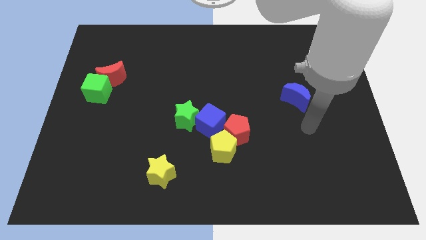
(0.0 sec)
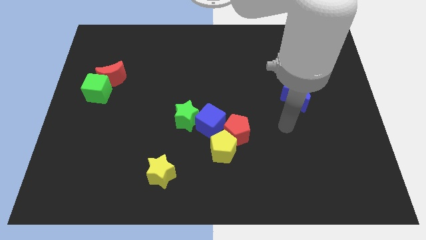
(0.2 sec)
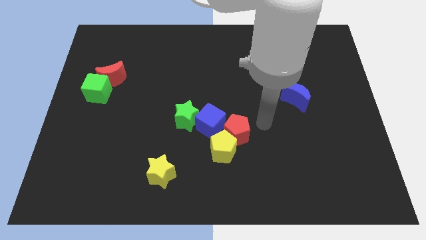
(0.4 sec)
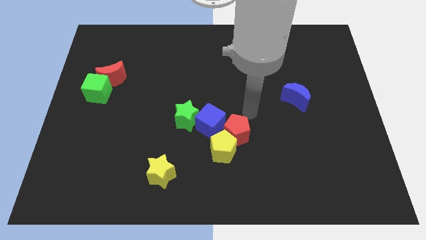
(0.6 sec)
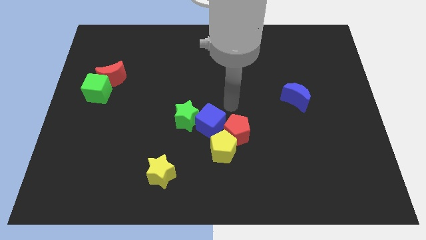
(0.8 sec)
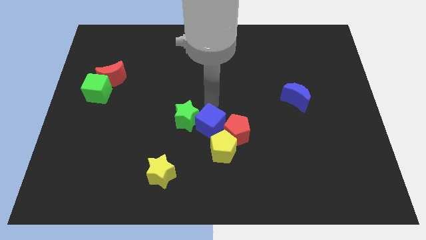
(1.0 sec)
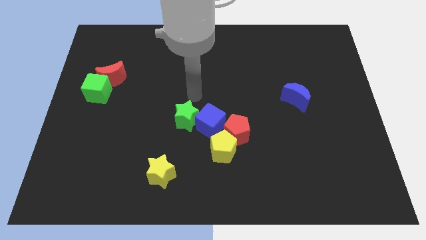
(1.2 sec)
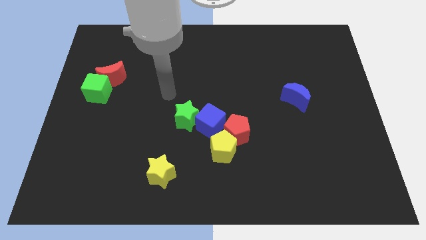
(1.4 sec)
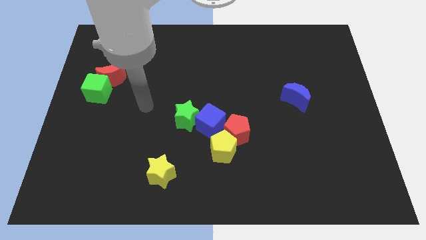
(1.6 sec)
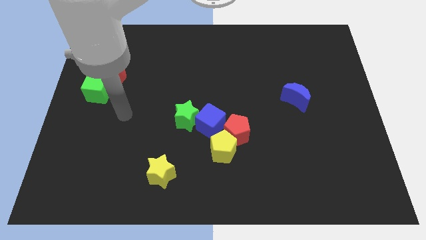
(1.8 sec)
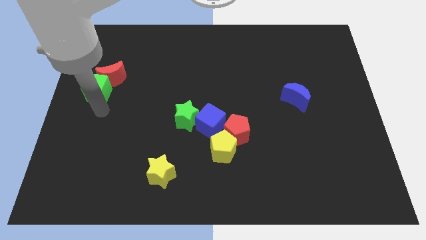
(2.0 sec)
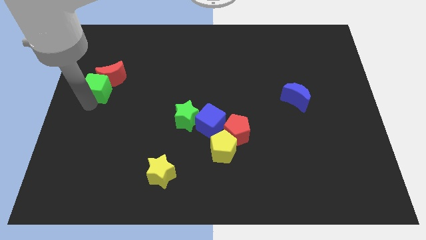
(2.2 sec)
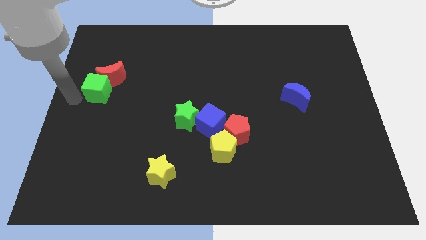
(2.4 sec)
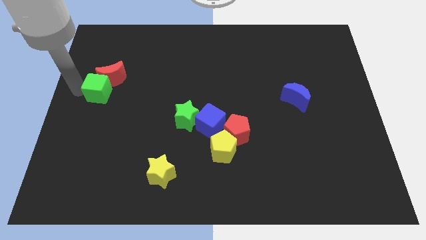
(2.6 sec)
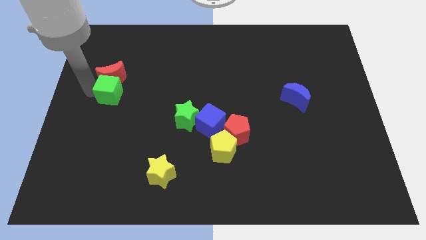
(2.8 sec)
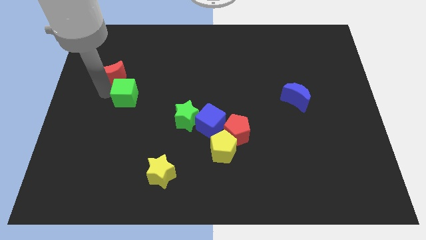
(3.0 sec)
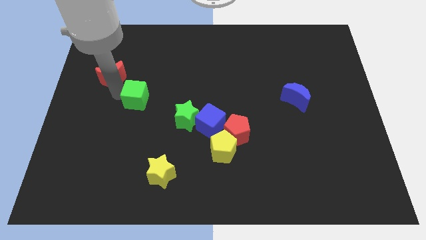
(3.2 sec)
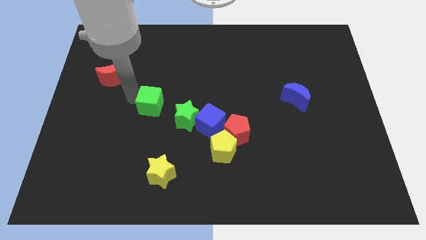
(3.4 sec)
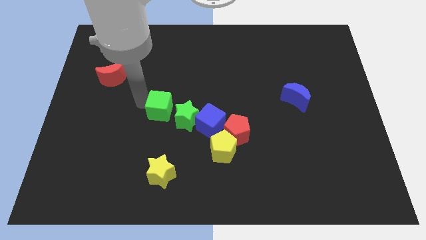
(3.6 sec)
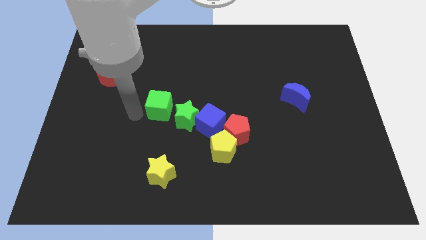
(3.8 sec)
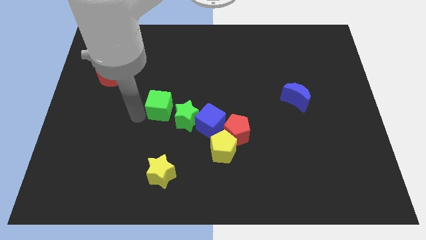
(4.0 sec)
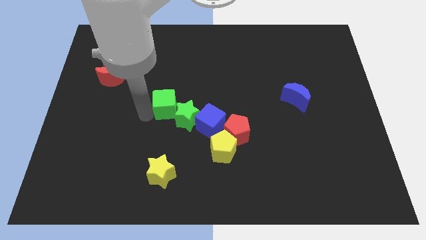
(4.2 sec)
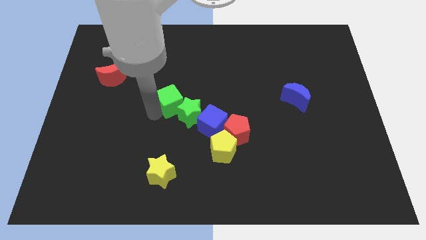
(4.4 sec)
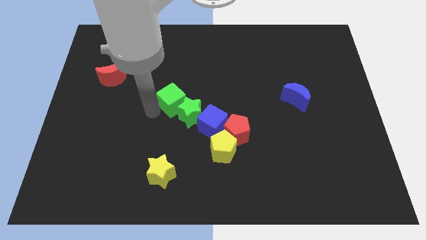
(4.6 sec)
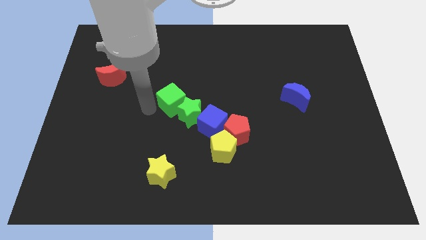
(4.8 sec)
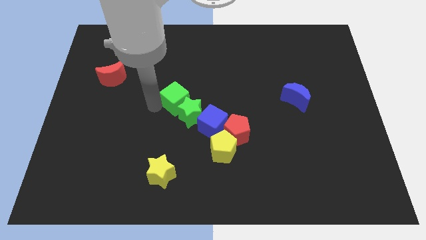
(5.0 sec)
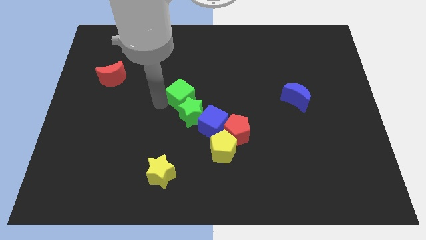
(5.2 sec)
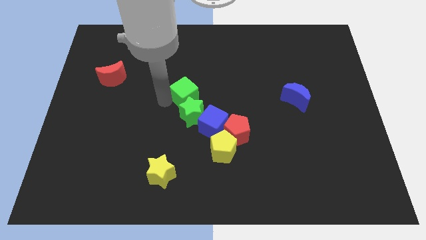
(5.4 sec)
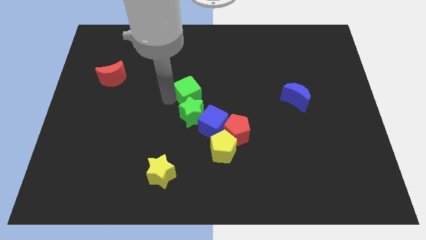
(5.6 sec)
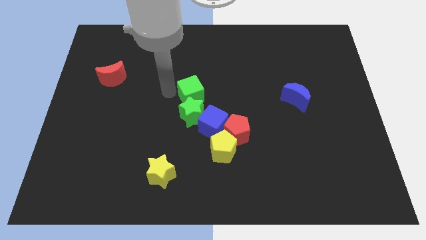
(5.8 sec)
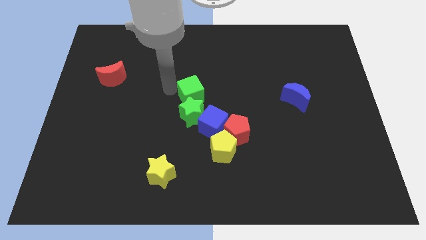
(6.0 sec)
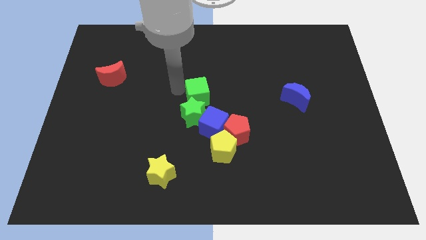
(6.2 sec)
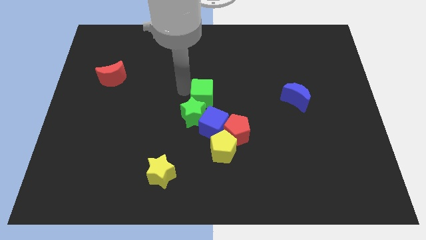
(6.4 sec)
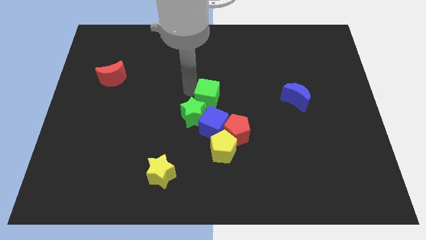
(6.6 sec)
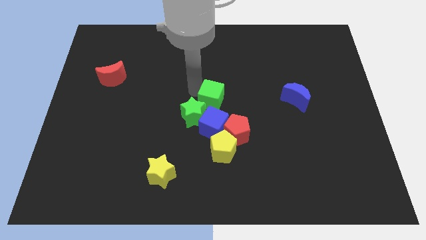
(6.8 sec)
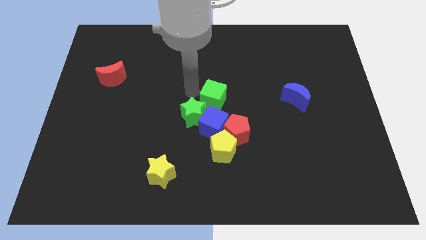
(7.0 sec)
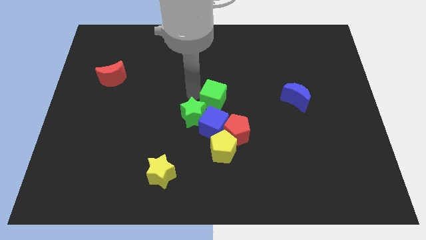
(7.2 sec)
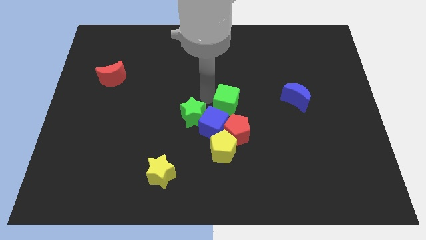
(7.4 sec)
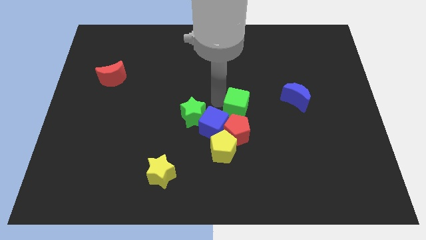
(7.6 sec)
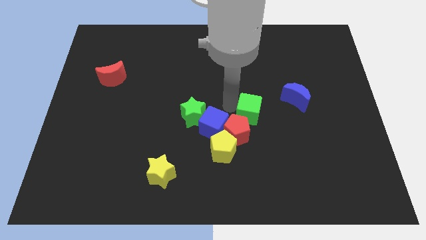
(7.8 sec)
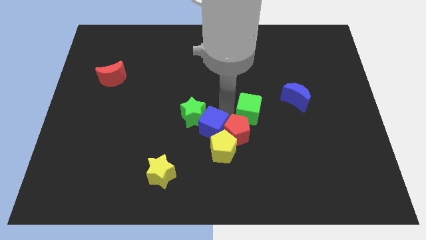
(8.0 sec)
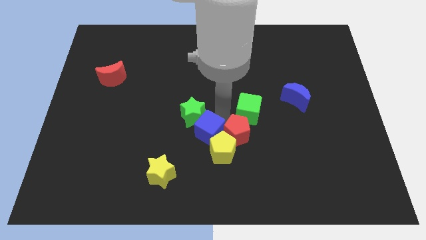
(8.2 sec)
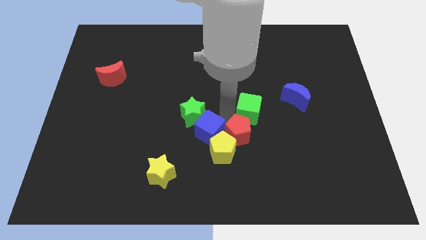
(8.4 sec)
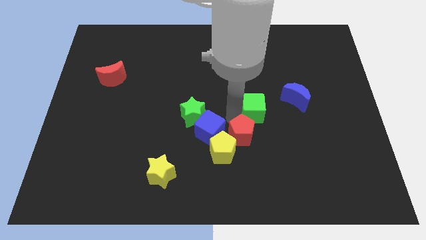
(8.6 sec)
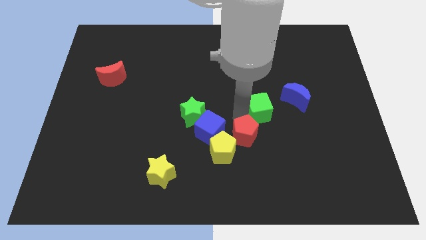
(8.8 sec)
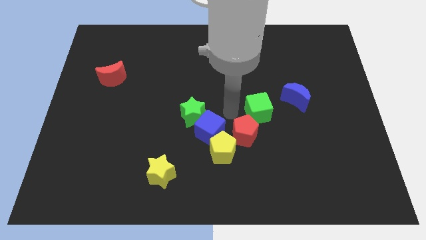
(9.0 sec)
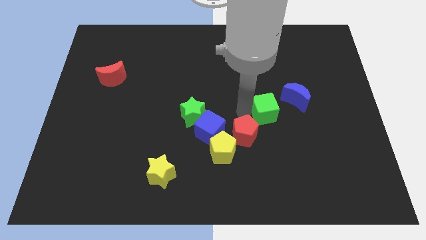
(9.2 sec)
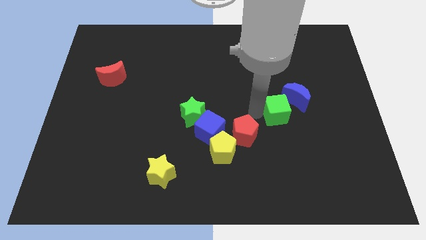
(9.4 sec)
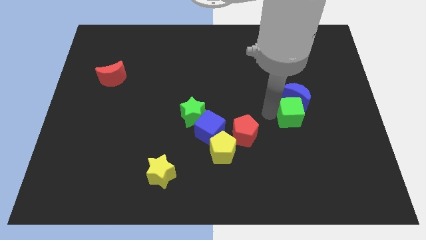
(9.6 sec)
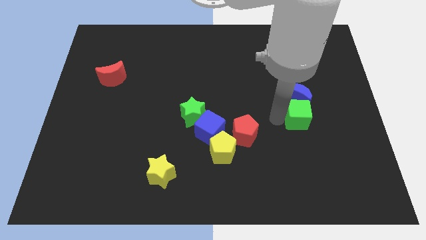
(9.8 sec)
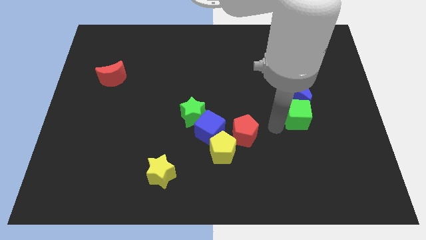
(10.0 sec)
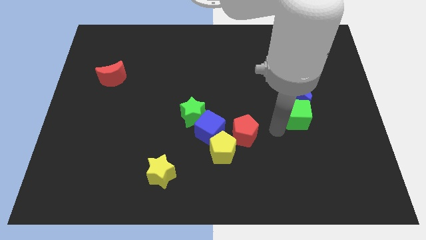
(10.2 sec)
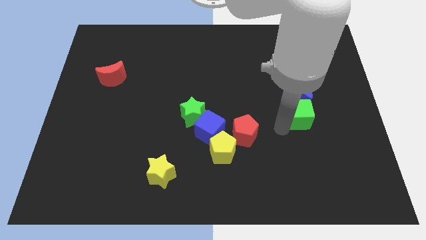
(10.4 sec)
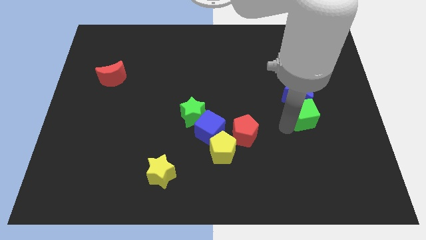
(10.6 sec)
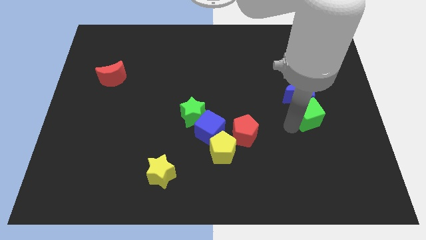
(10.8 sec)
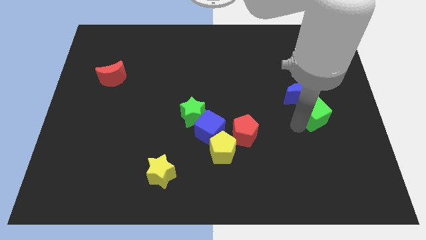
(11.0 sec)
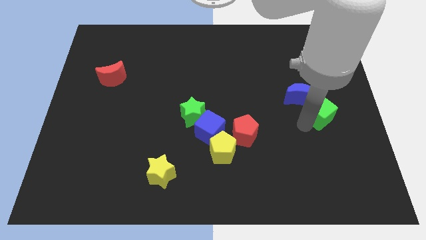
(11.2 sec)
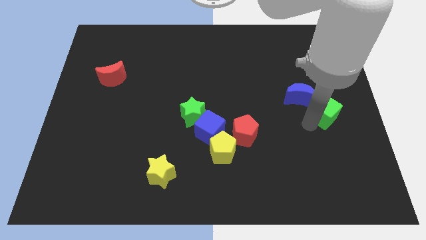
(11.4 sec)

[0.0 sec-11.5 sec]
push the green cube to the center right
